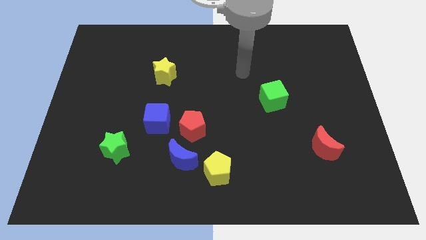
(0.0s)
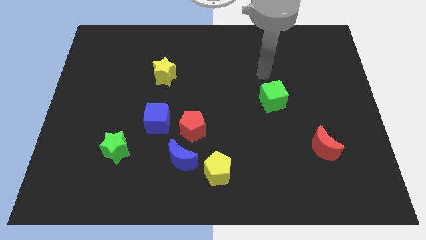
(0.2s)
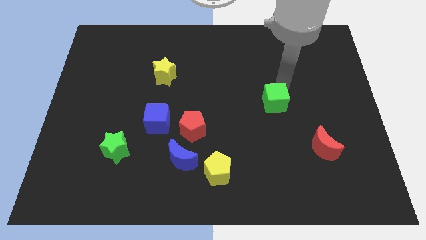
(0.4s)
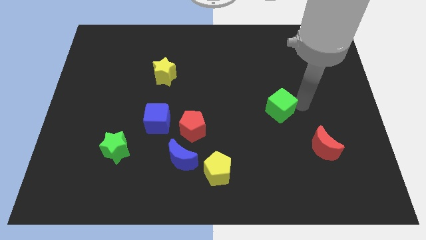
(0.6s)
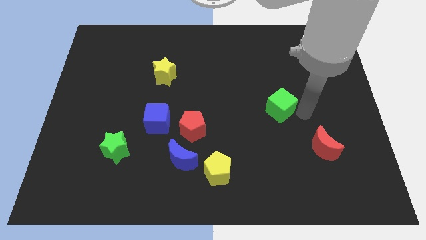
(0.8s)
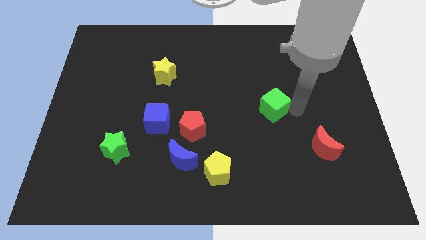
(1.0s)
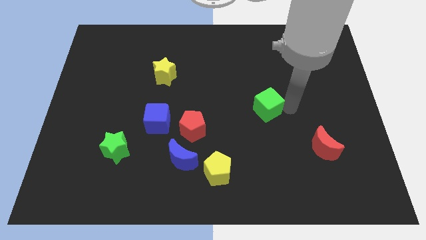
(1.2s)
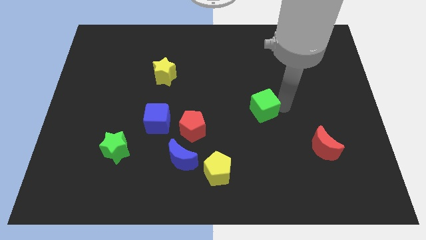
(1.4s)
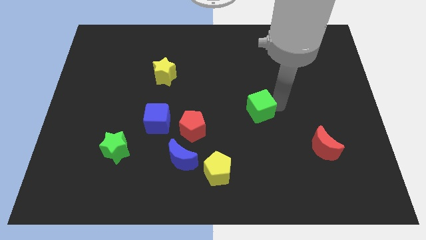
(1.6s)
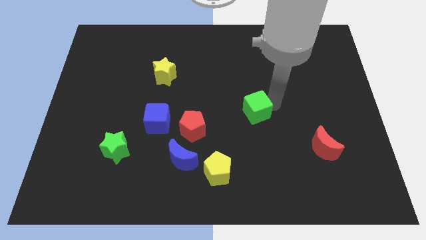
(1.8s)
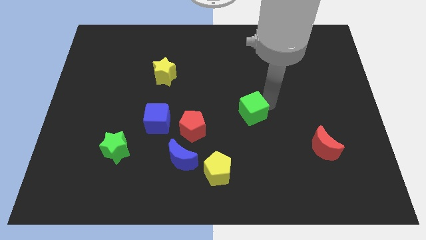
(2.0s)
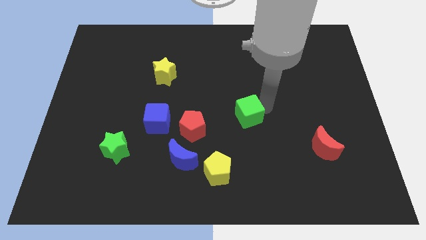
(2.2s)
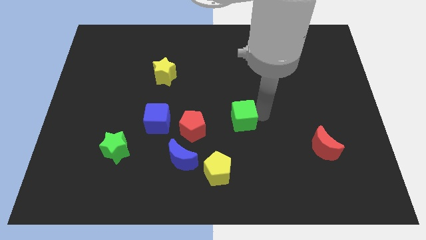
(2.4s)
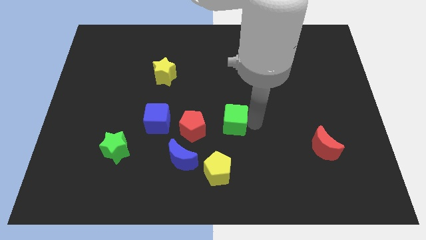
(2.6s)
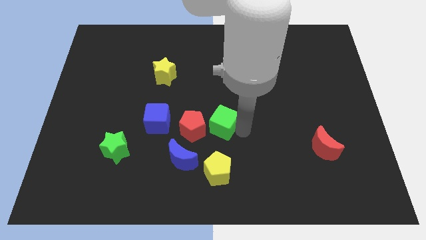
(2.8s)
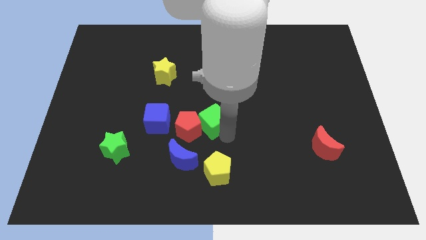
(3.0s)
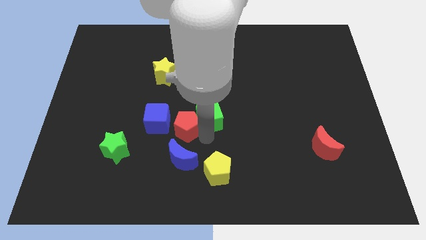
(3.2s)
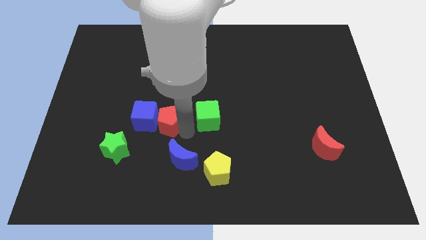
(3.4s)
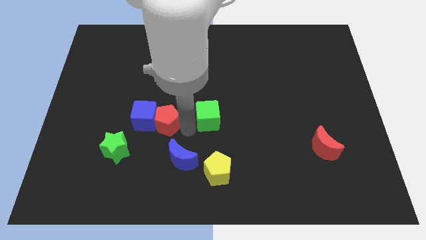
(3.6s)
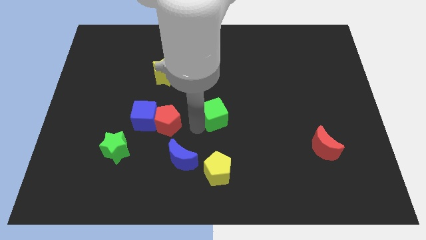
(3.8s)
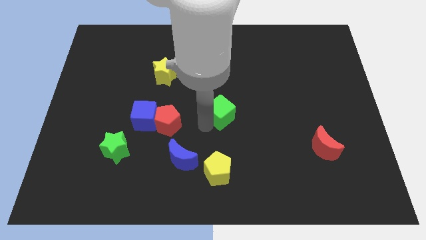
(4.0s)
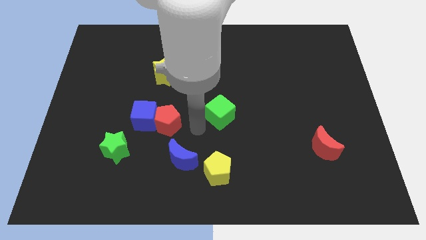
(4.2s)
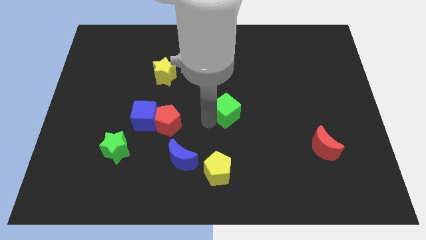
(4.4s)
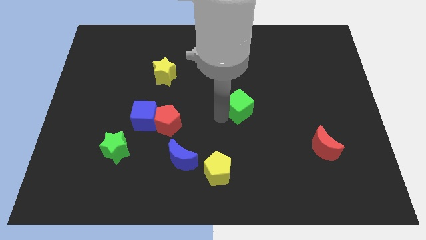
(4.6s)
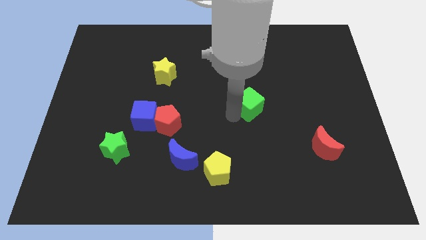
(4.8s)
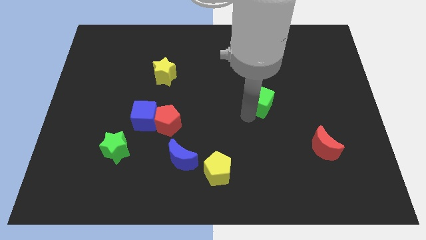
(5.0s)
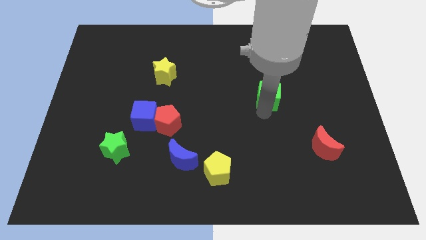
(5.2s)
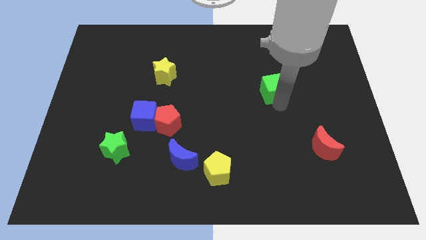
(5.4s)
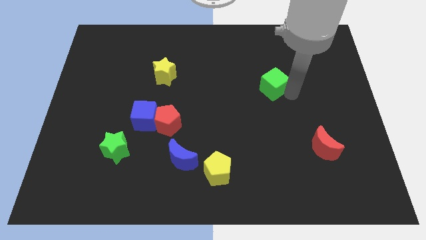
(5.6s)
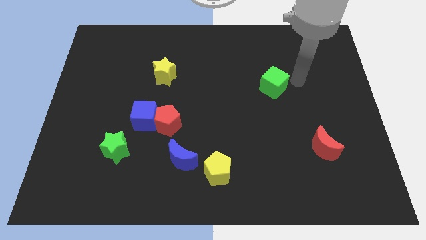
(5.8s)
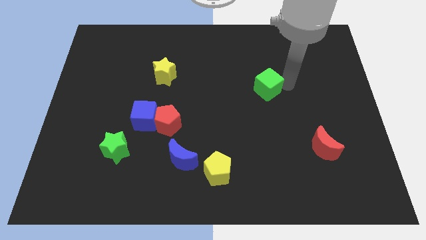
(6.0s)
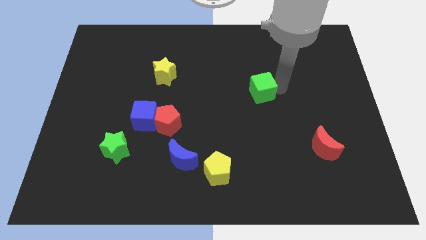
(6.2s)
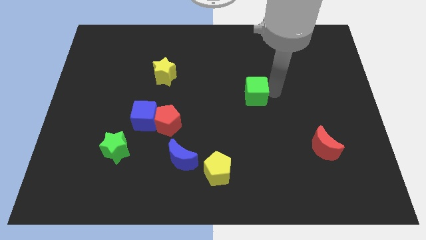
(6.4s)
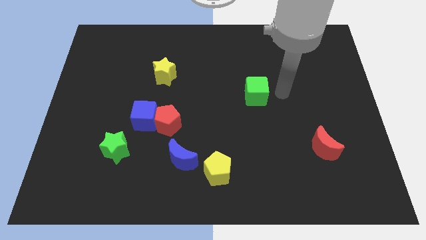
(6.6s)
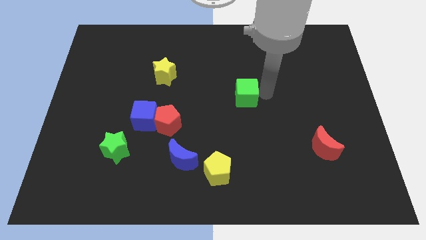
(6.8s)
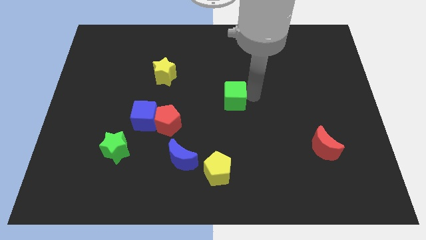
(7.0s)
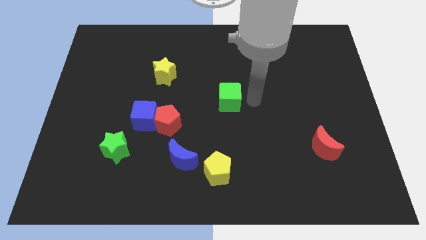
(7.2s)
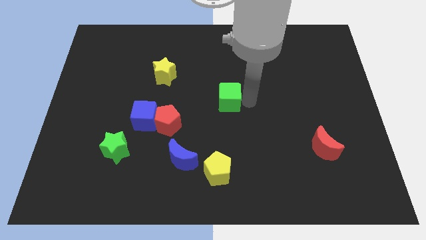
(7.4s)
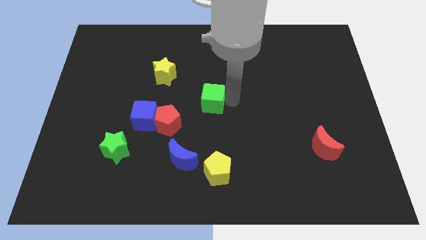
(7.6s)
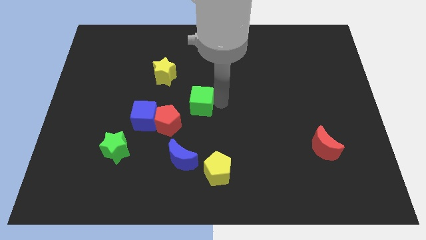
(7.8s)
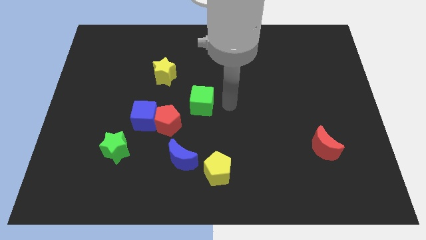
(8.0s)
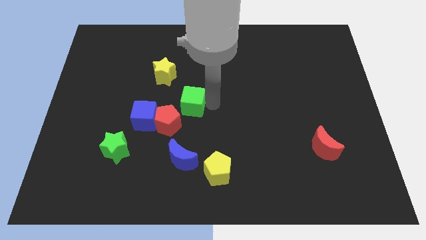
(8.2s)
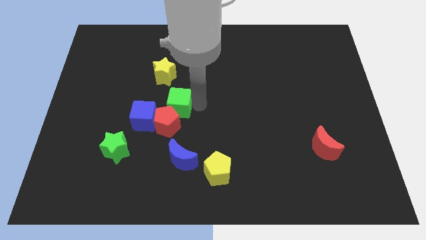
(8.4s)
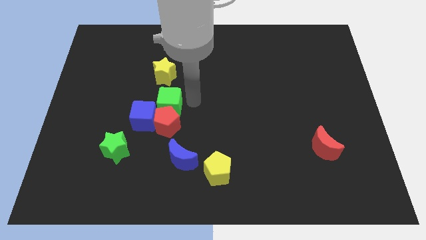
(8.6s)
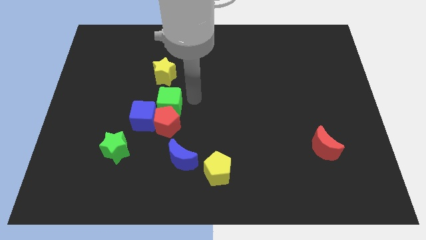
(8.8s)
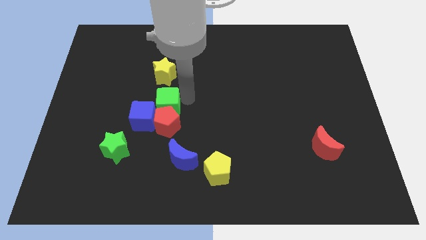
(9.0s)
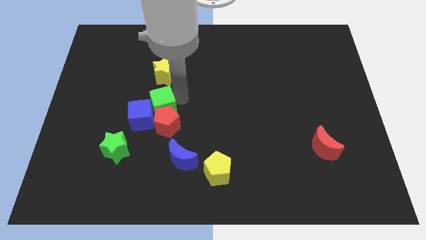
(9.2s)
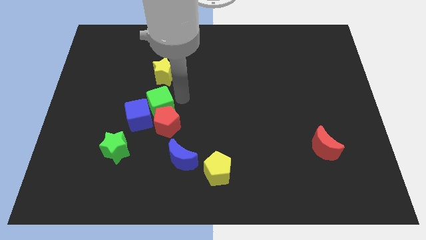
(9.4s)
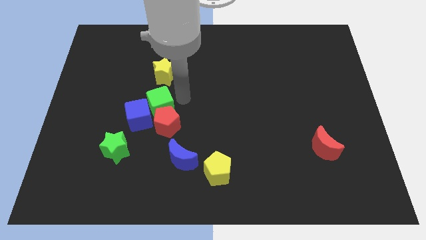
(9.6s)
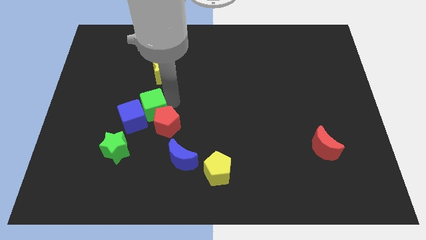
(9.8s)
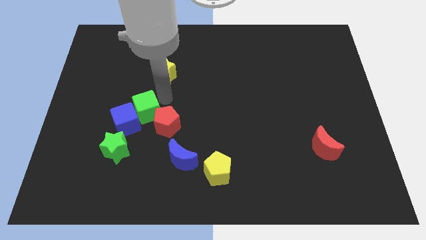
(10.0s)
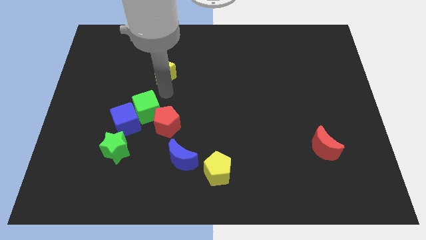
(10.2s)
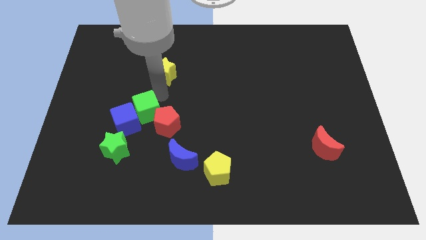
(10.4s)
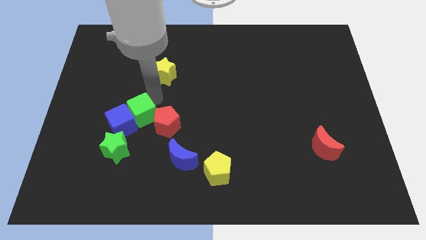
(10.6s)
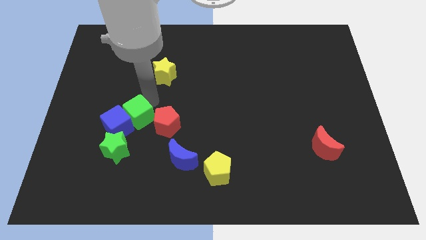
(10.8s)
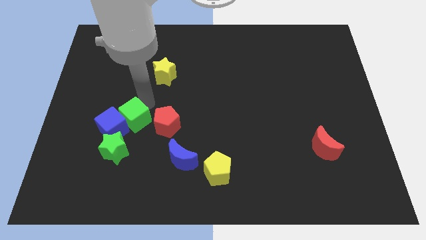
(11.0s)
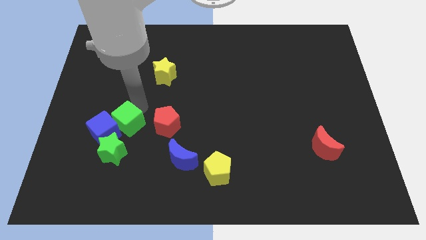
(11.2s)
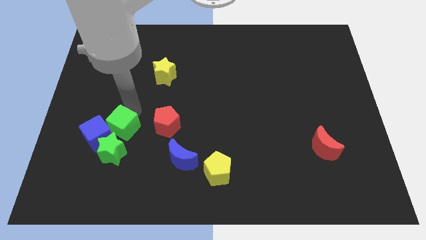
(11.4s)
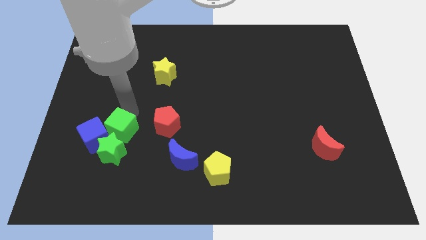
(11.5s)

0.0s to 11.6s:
slide the green cube close to the green star

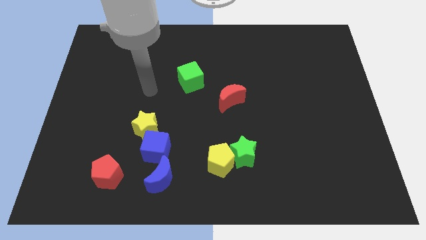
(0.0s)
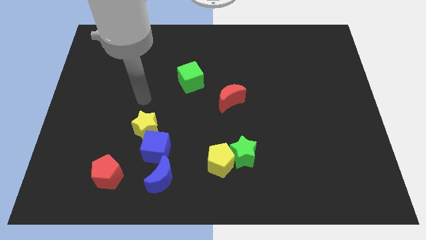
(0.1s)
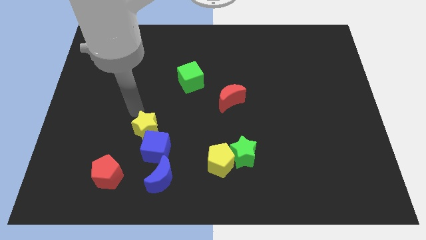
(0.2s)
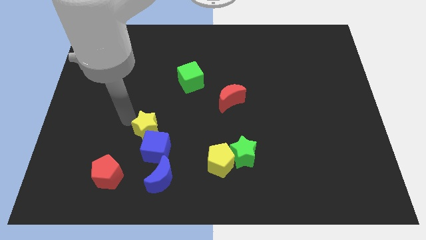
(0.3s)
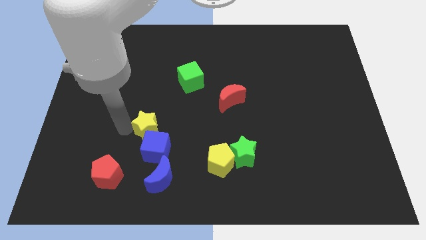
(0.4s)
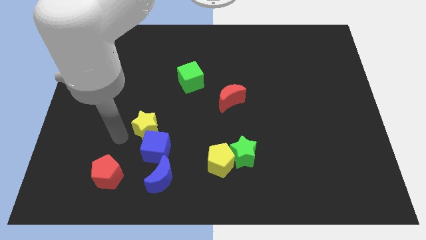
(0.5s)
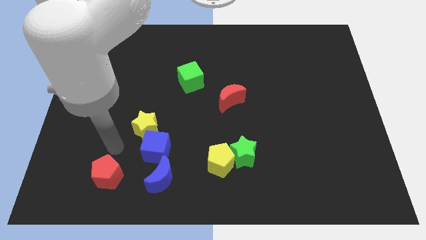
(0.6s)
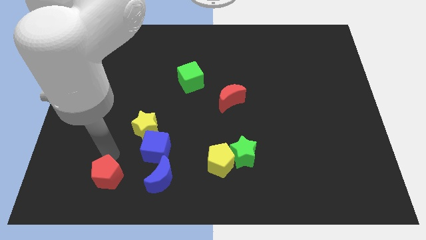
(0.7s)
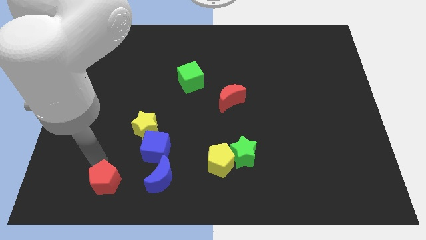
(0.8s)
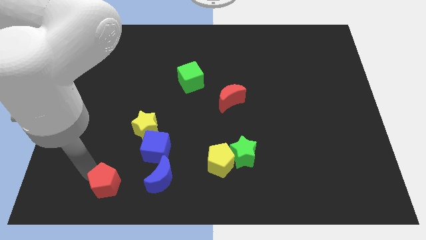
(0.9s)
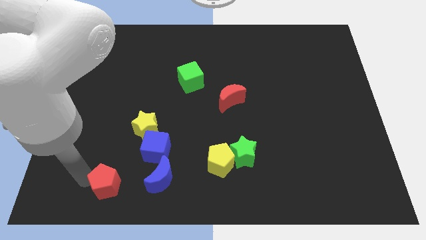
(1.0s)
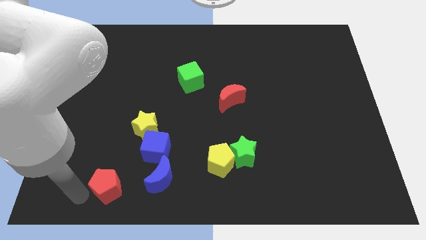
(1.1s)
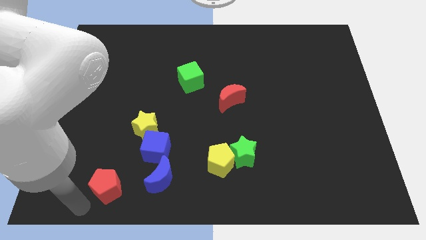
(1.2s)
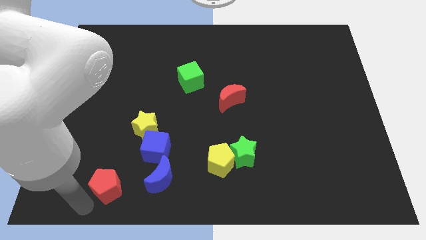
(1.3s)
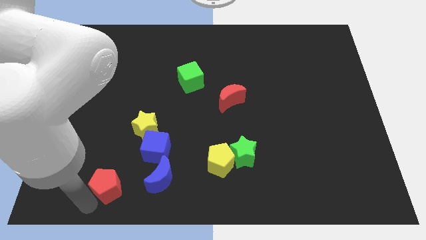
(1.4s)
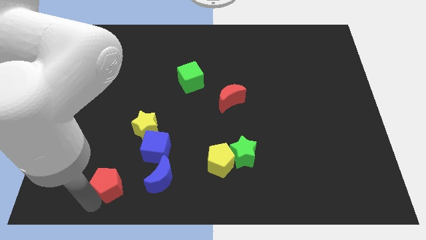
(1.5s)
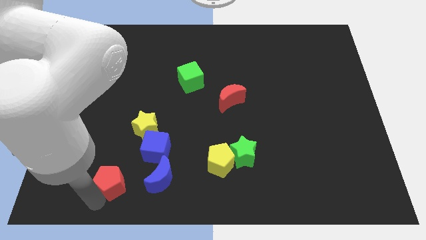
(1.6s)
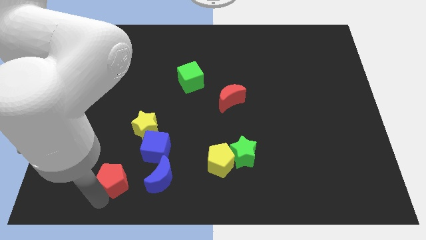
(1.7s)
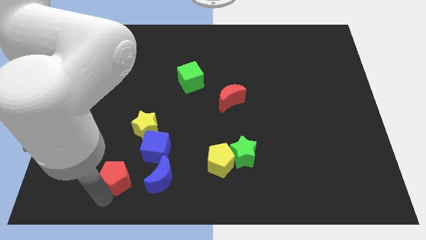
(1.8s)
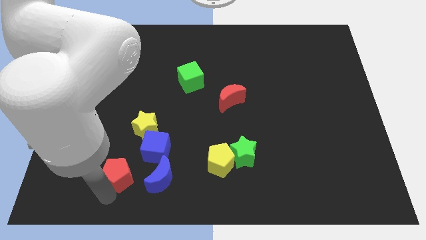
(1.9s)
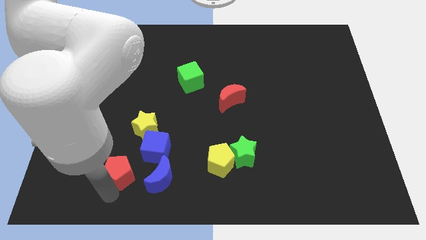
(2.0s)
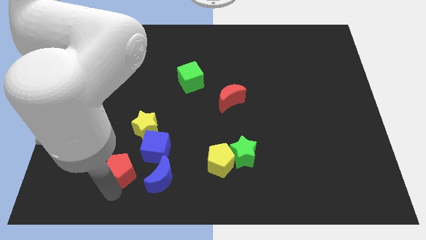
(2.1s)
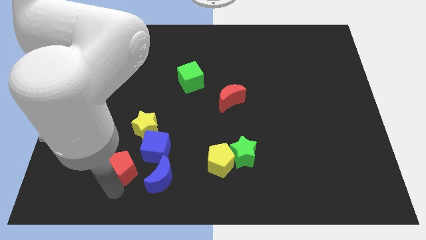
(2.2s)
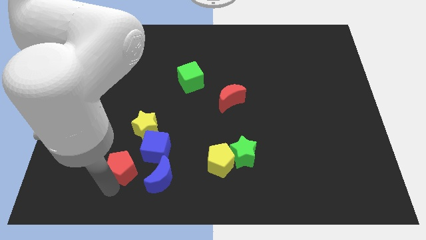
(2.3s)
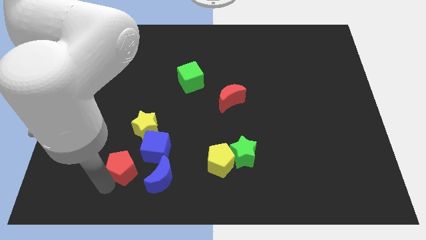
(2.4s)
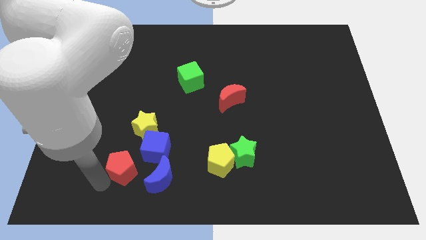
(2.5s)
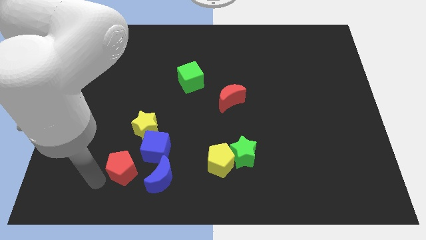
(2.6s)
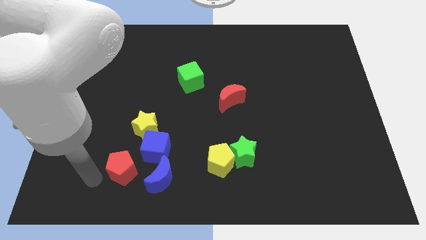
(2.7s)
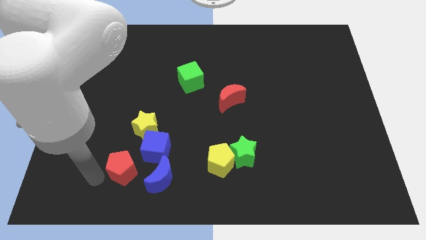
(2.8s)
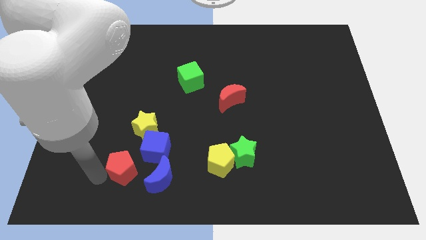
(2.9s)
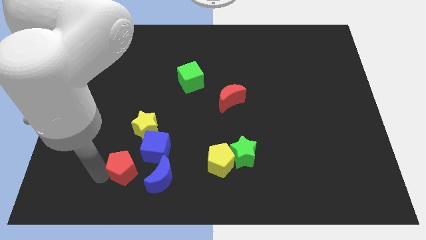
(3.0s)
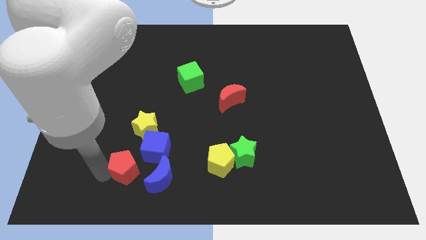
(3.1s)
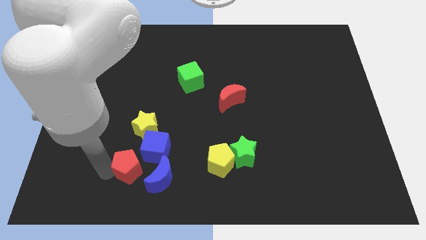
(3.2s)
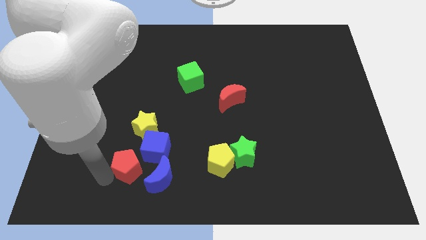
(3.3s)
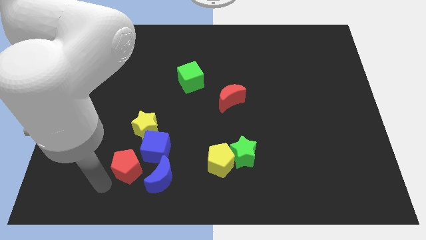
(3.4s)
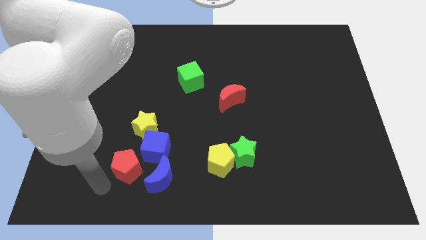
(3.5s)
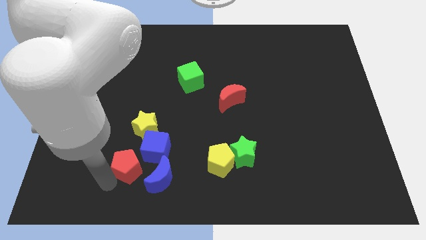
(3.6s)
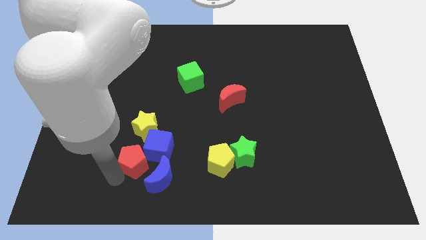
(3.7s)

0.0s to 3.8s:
put the red pentagon close to the blue cube
